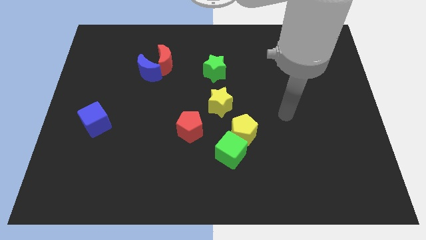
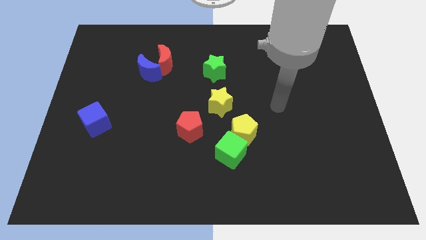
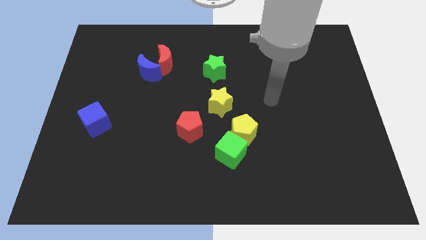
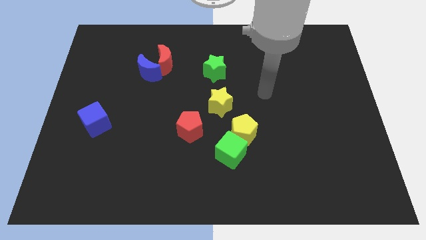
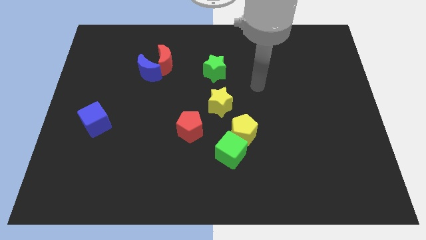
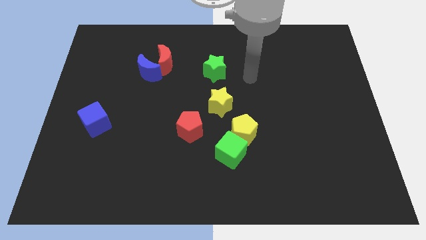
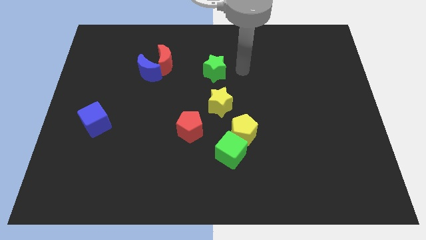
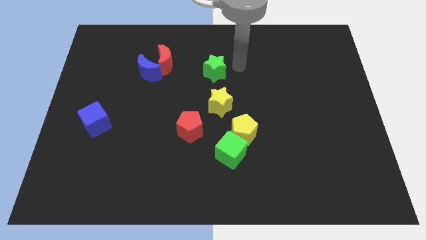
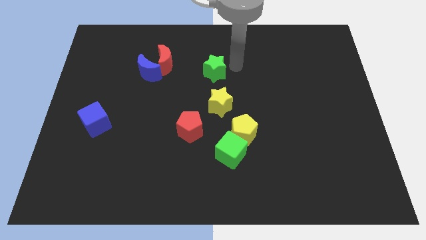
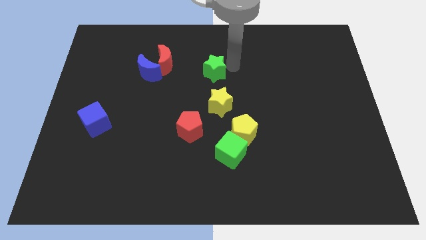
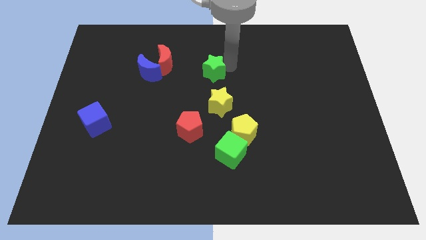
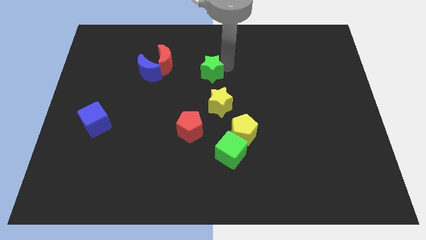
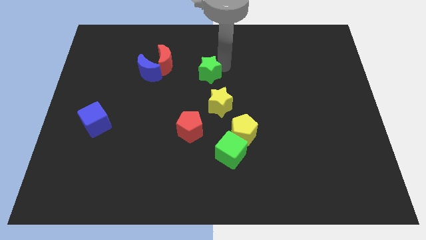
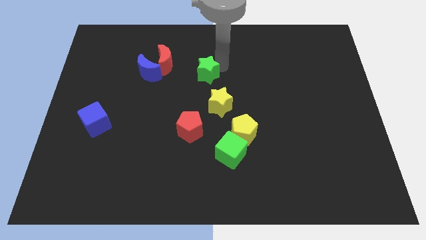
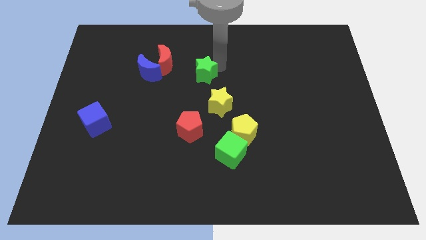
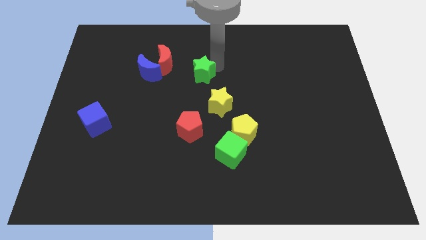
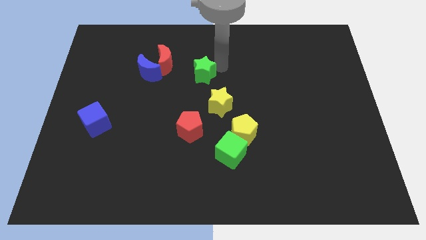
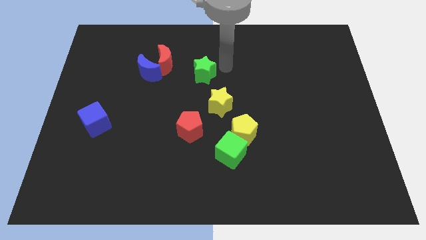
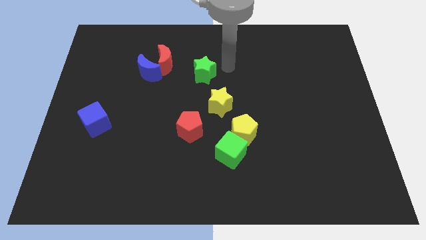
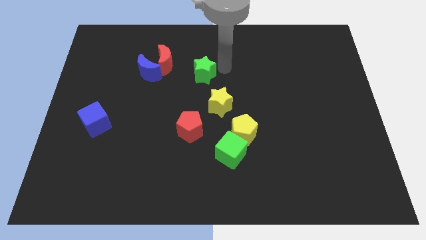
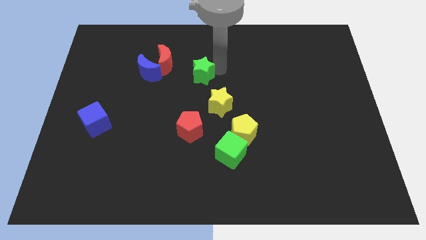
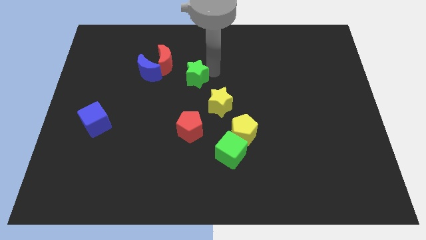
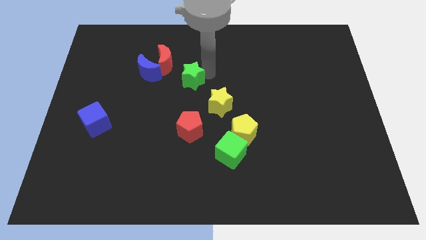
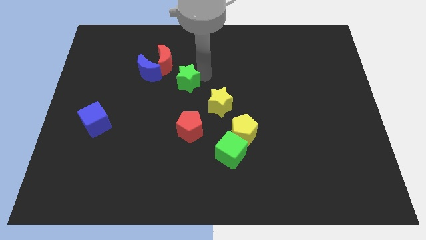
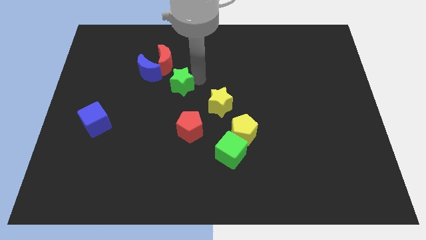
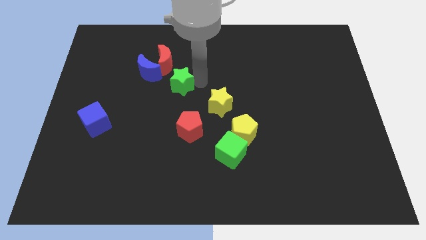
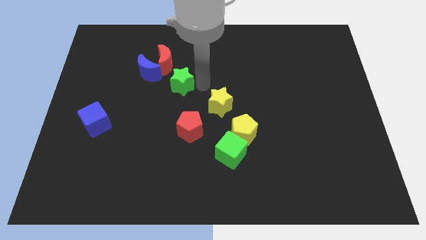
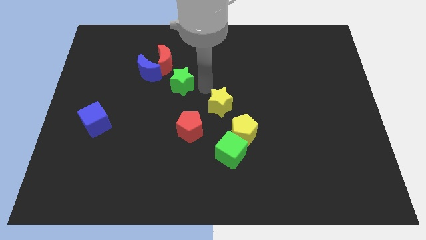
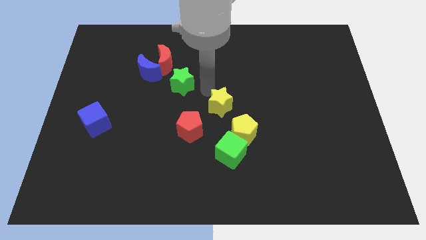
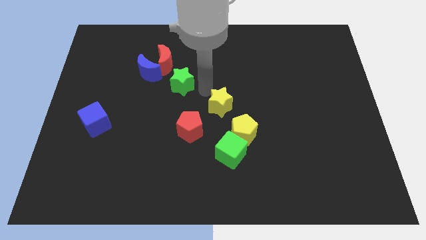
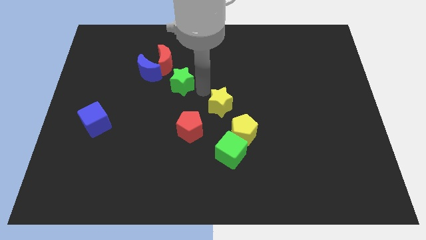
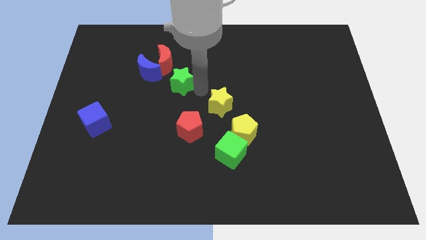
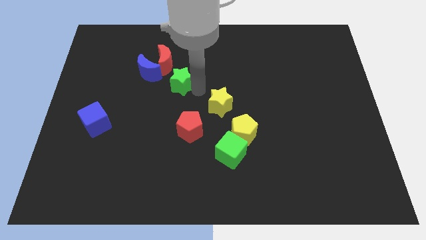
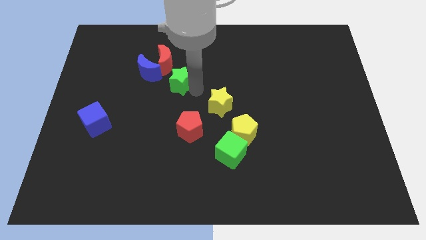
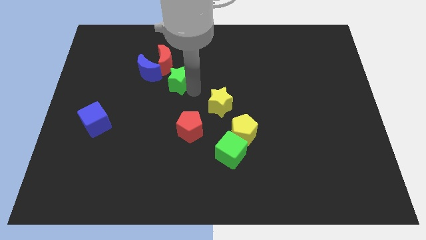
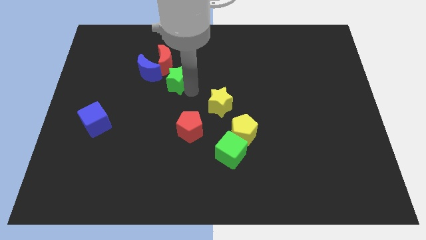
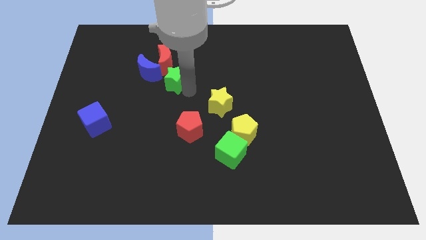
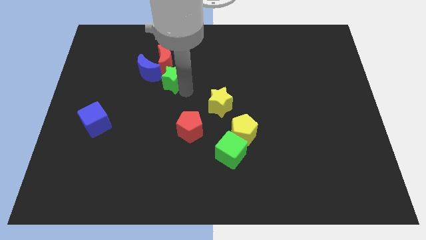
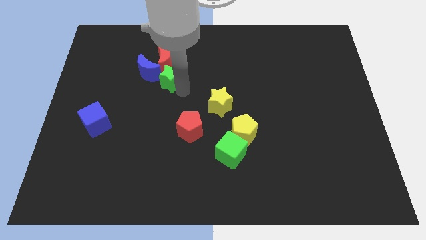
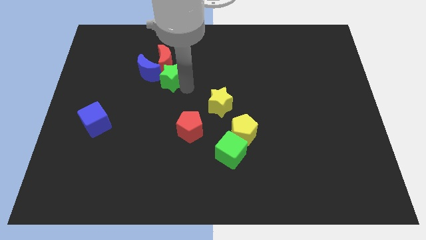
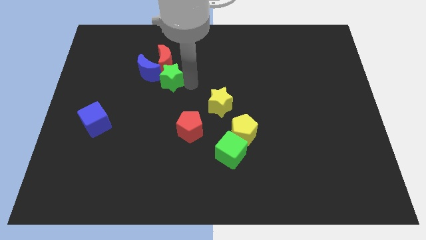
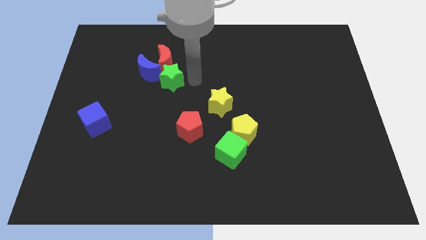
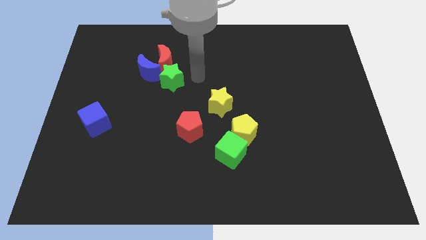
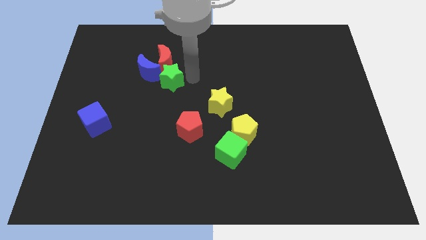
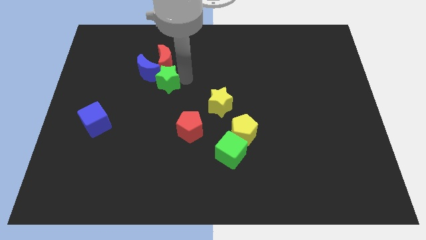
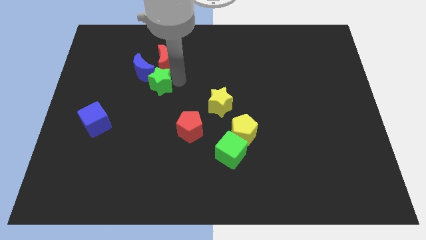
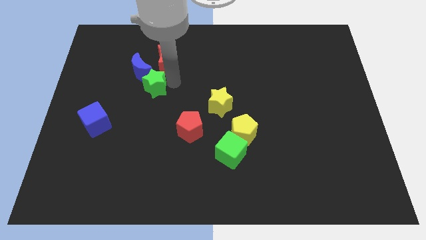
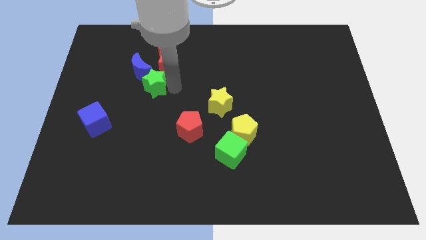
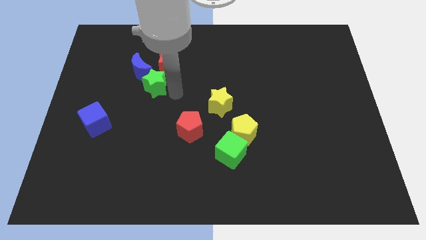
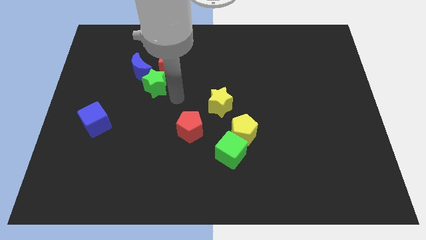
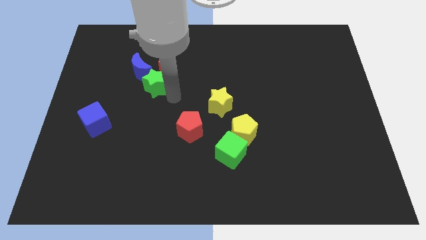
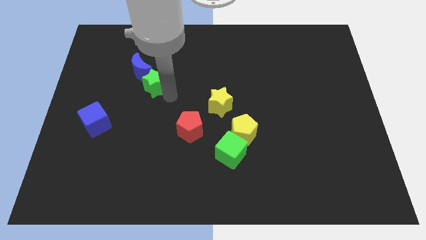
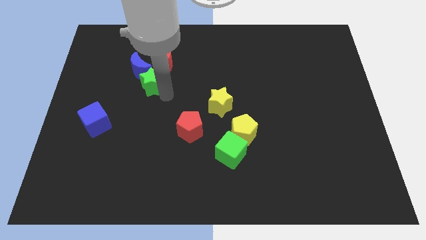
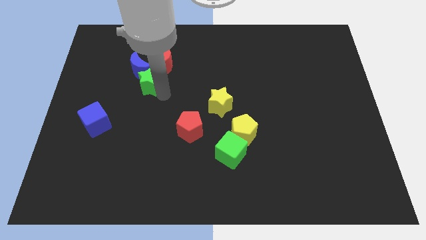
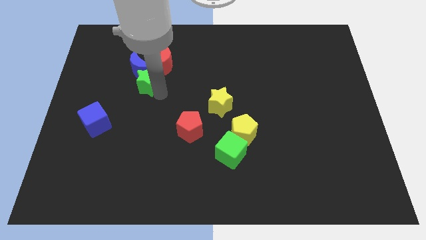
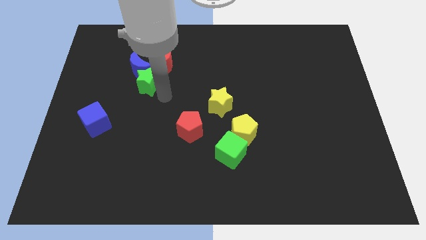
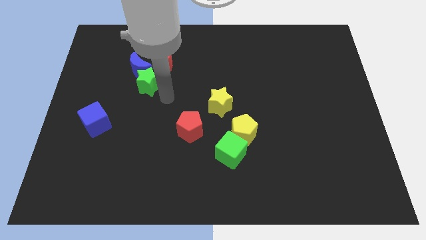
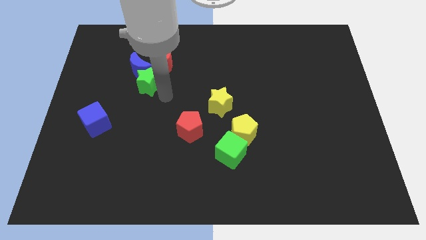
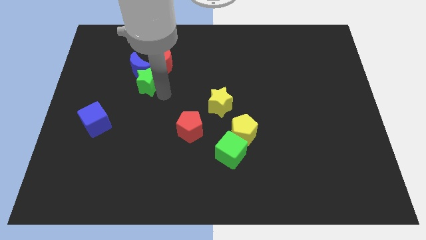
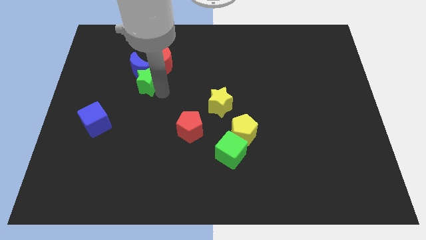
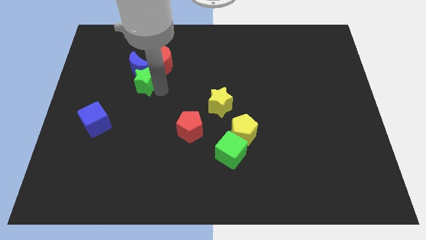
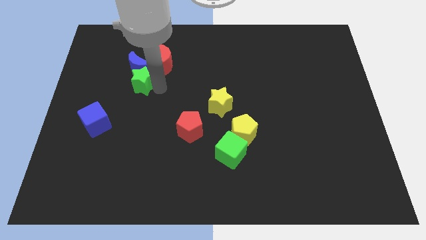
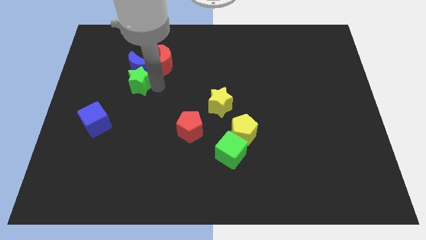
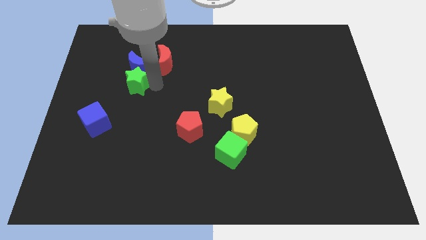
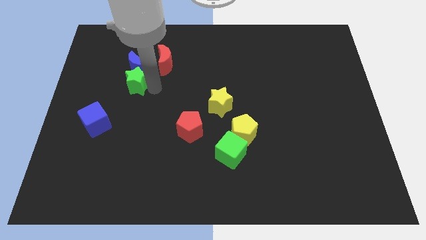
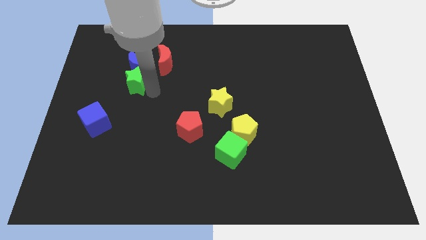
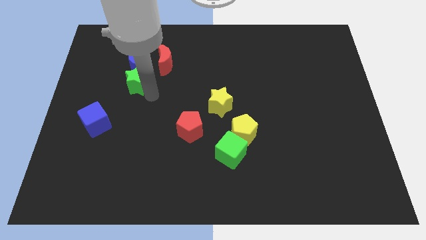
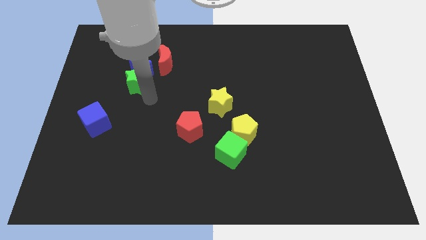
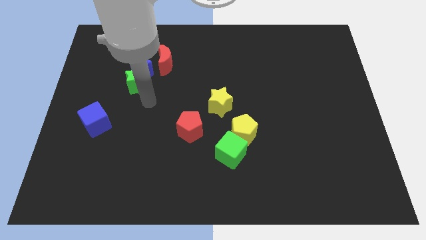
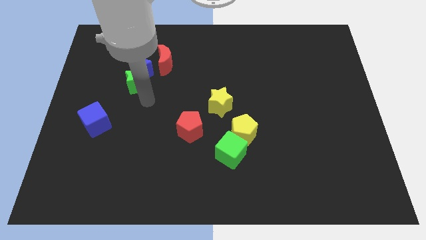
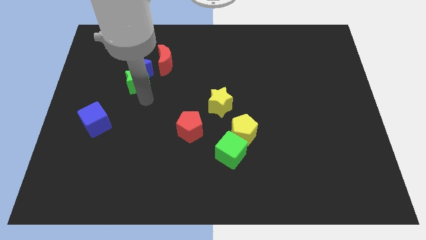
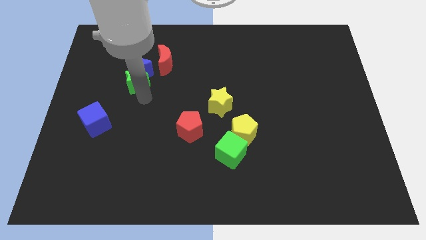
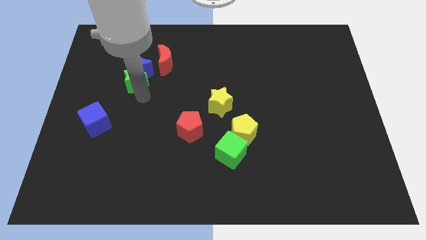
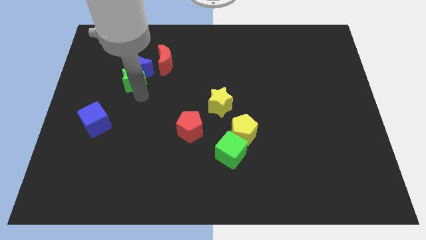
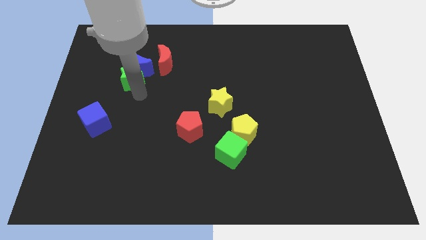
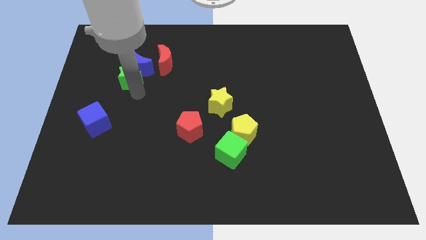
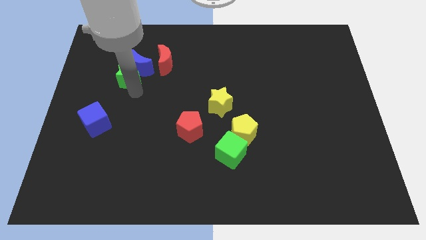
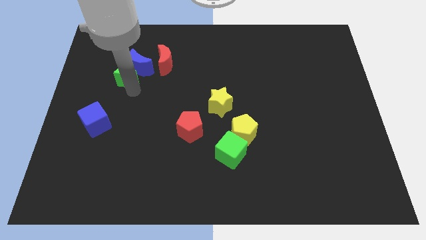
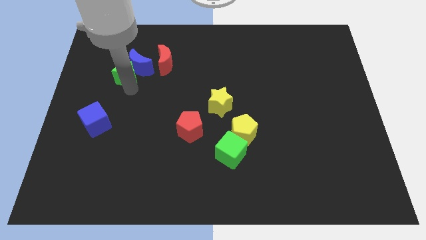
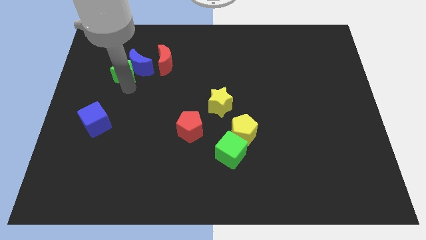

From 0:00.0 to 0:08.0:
slide the green star just left of the red moon
